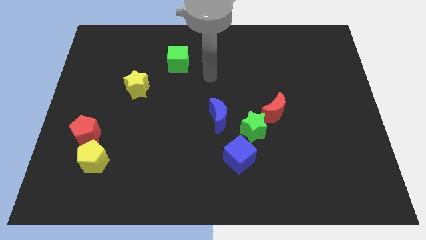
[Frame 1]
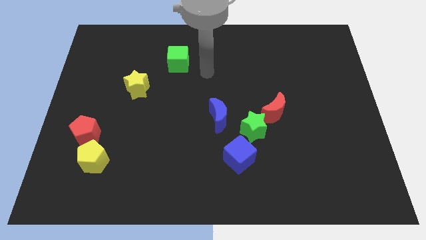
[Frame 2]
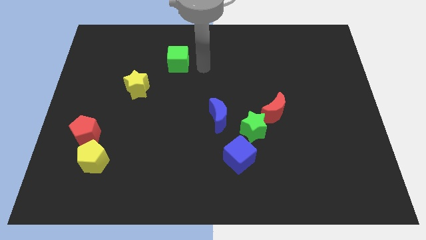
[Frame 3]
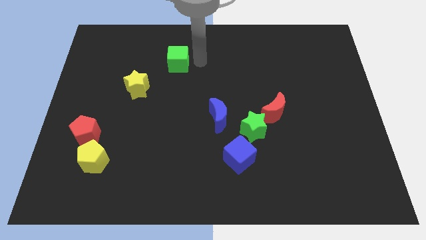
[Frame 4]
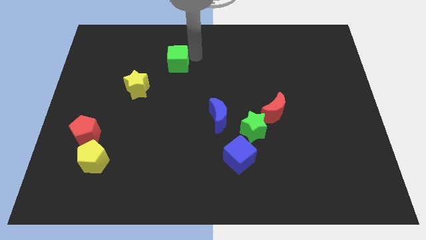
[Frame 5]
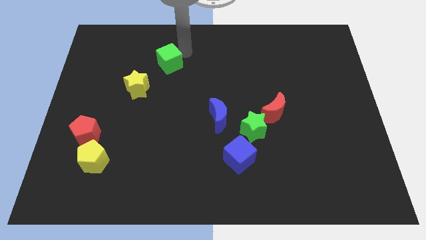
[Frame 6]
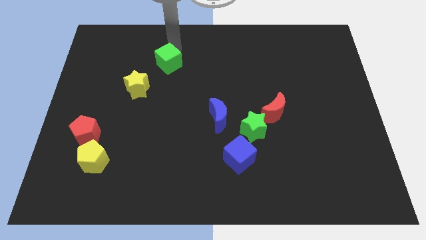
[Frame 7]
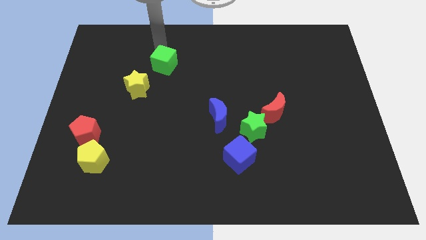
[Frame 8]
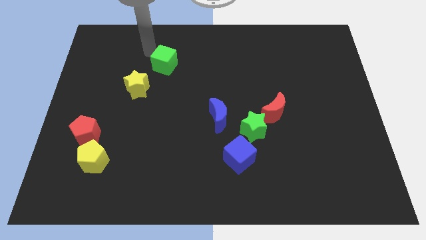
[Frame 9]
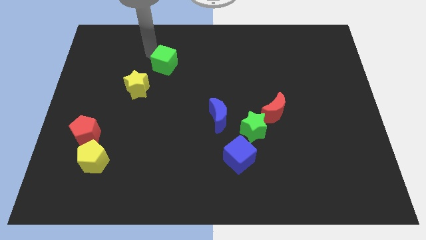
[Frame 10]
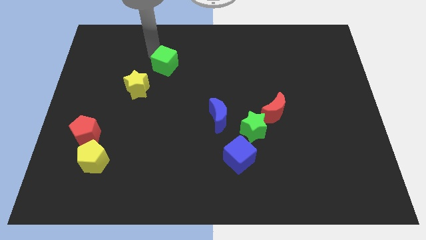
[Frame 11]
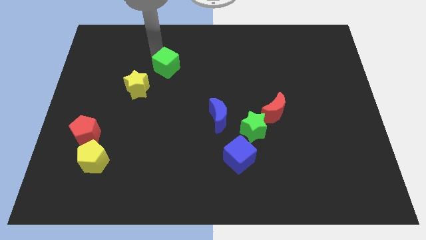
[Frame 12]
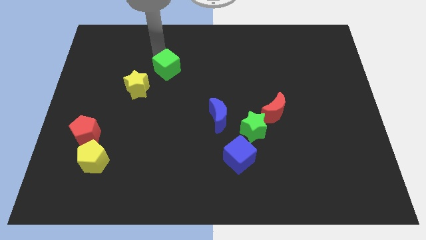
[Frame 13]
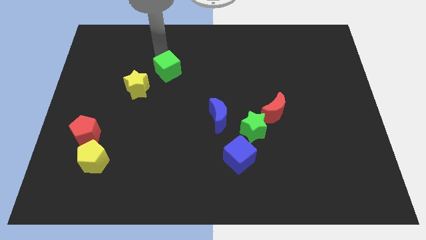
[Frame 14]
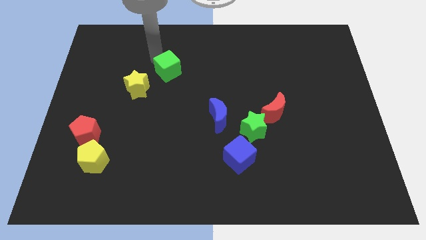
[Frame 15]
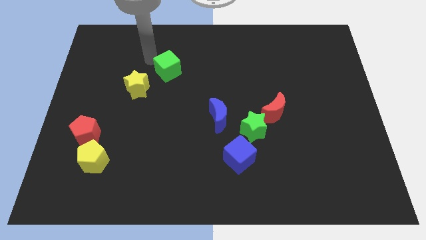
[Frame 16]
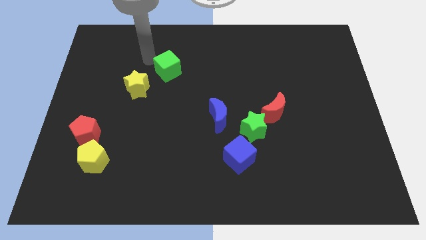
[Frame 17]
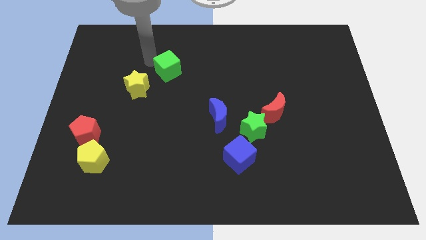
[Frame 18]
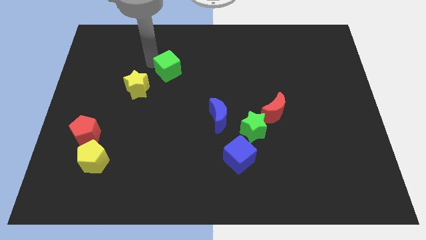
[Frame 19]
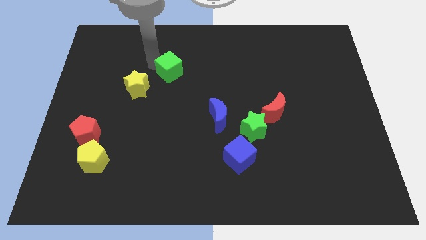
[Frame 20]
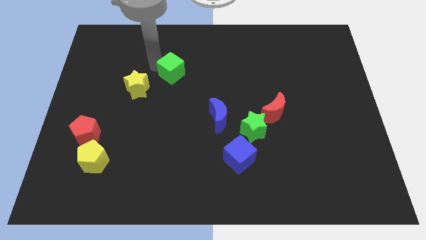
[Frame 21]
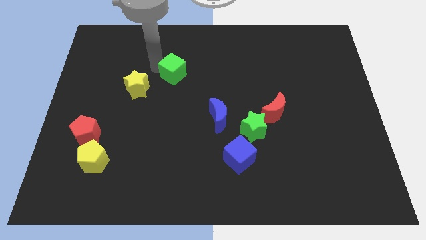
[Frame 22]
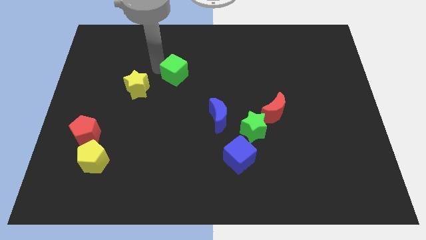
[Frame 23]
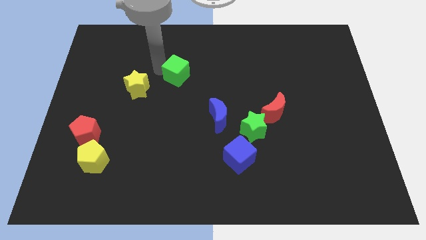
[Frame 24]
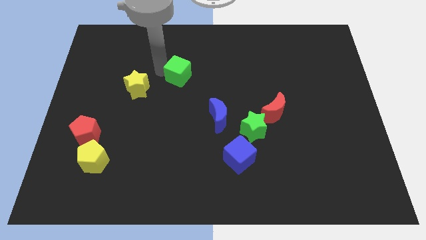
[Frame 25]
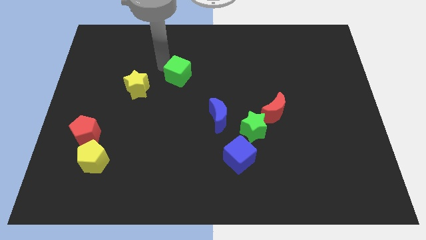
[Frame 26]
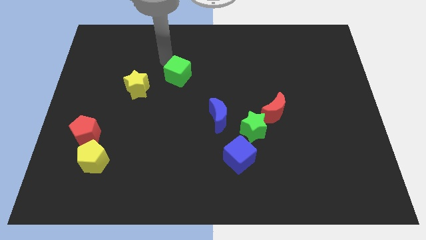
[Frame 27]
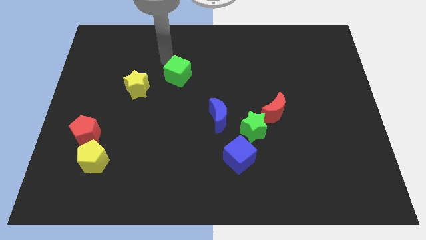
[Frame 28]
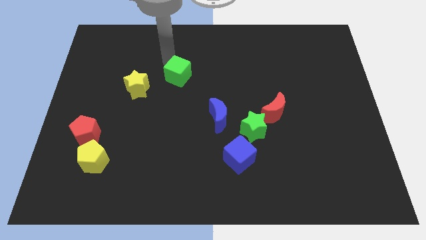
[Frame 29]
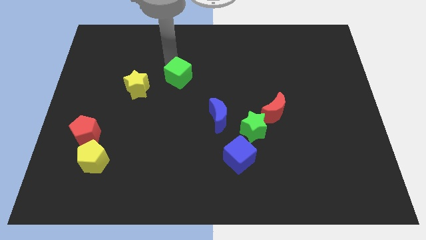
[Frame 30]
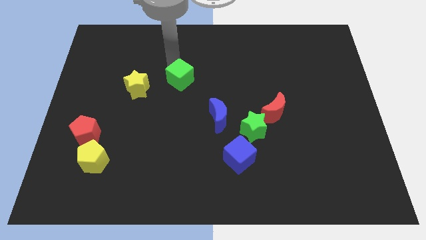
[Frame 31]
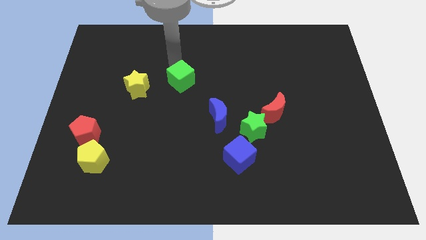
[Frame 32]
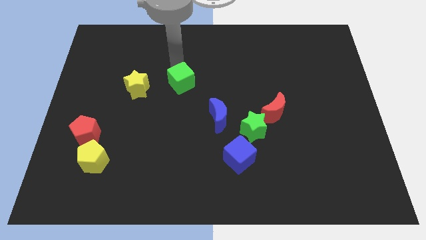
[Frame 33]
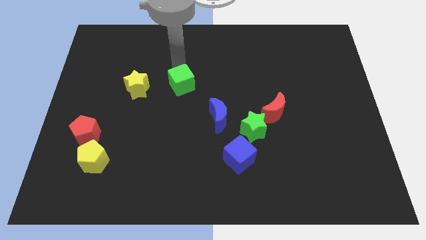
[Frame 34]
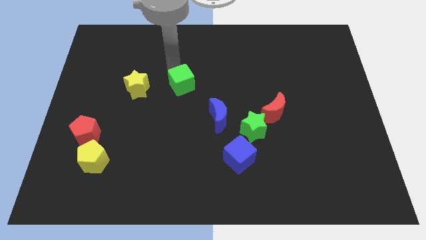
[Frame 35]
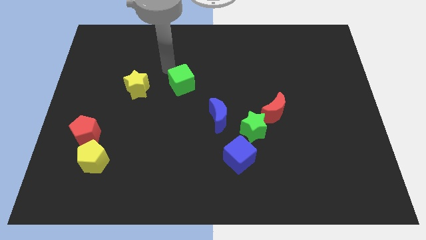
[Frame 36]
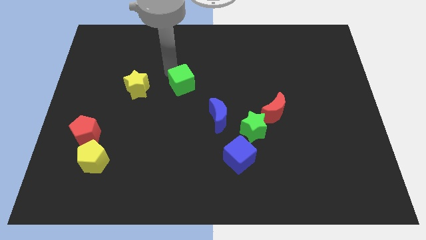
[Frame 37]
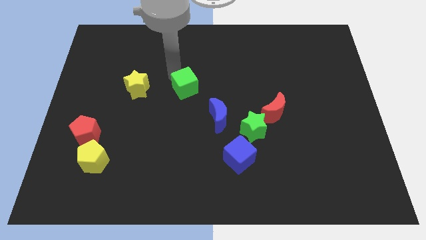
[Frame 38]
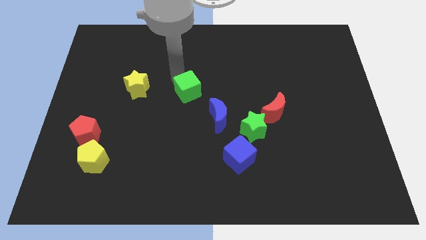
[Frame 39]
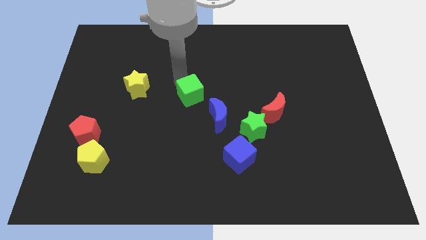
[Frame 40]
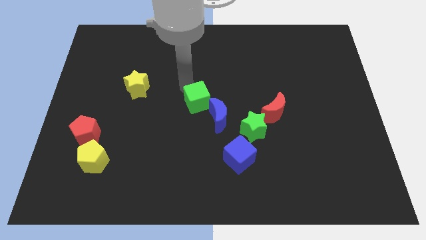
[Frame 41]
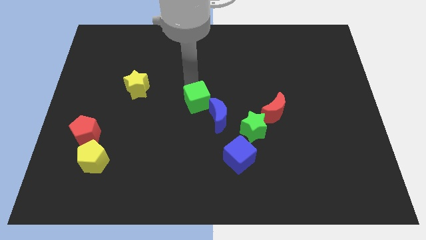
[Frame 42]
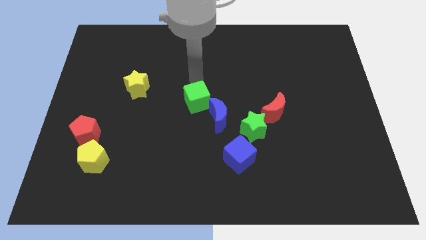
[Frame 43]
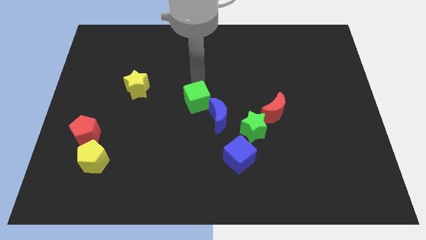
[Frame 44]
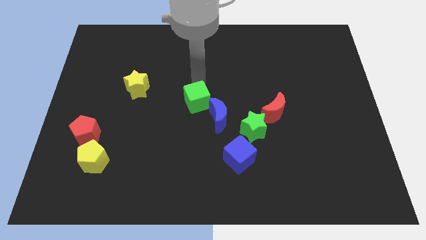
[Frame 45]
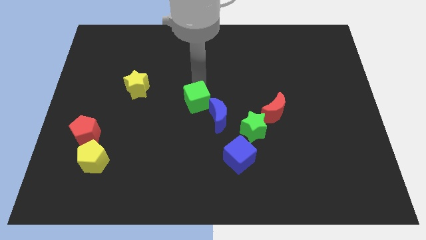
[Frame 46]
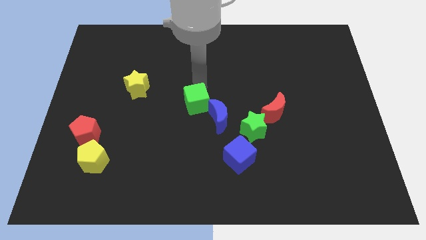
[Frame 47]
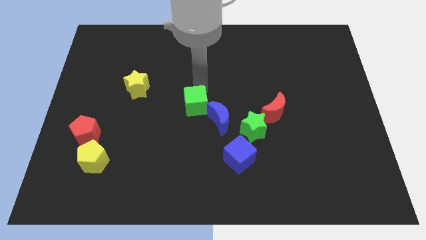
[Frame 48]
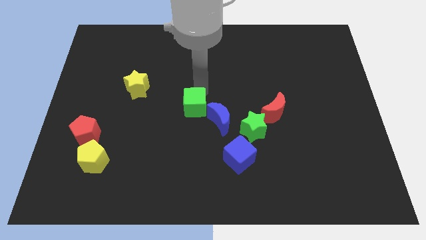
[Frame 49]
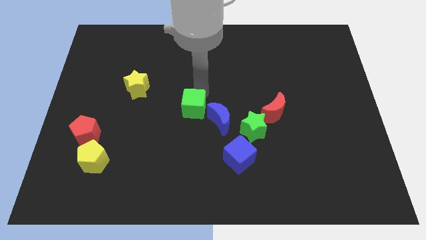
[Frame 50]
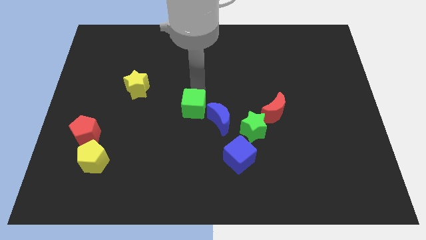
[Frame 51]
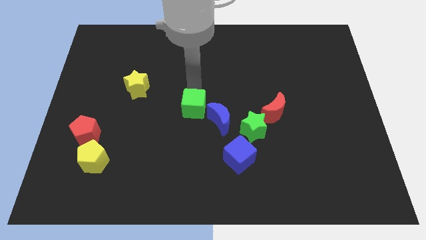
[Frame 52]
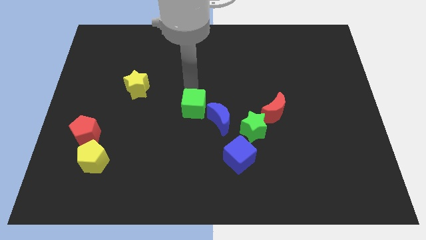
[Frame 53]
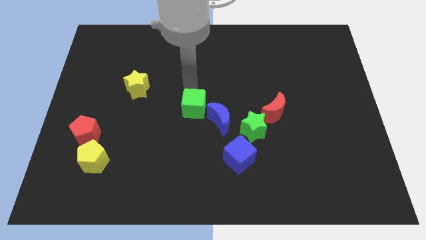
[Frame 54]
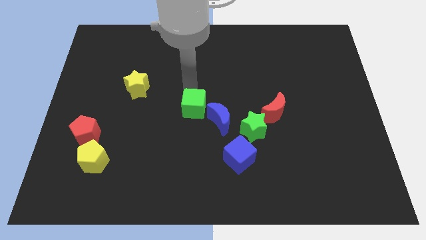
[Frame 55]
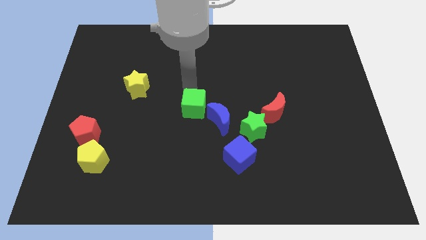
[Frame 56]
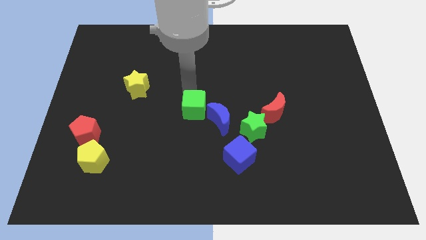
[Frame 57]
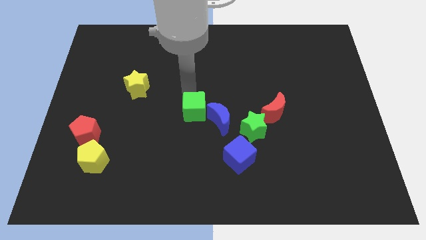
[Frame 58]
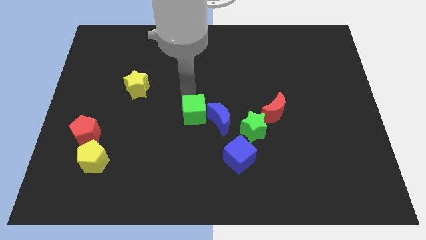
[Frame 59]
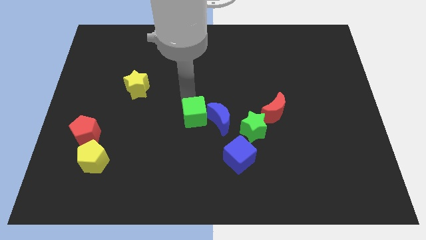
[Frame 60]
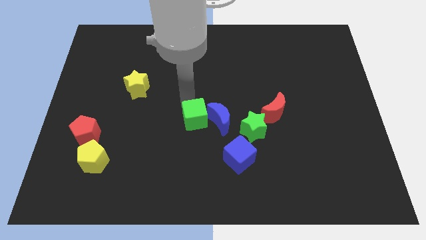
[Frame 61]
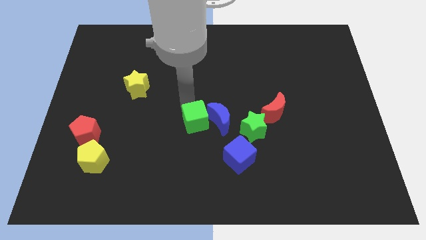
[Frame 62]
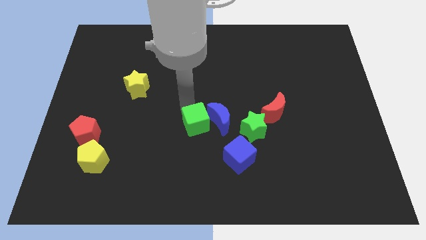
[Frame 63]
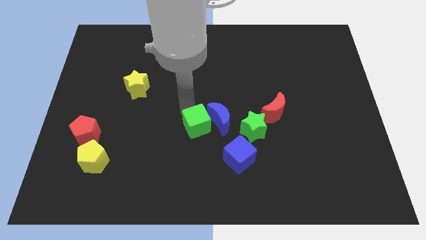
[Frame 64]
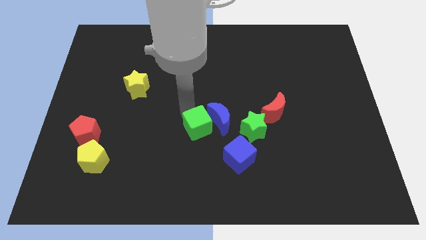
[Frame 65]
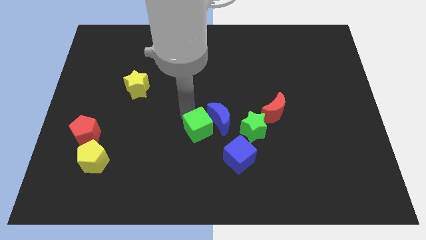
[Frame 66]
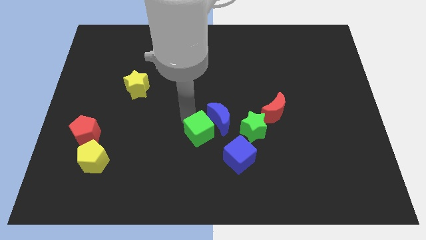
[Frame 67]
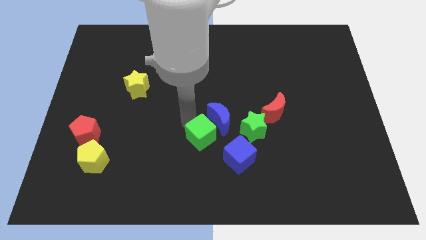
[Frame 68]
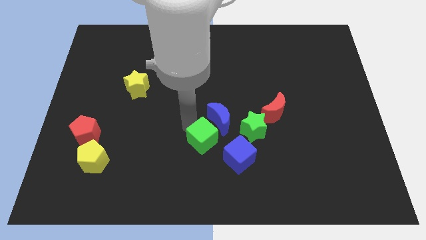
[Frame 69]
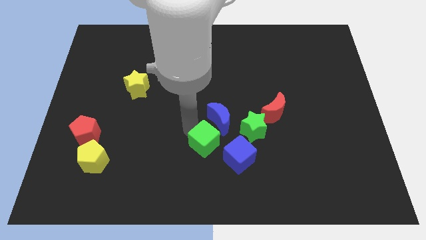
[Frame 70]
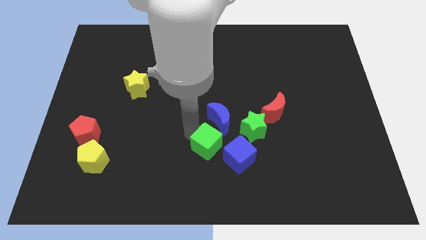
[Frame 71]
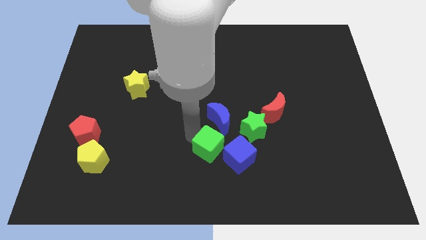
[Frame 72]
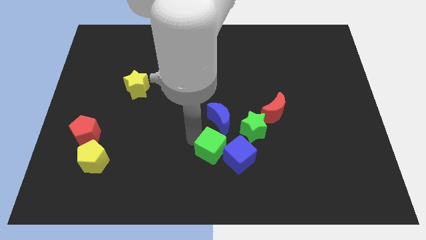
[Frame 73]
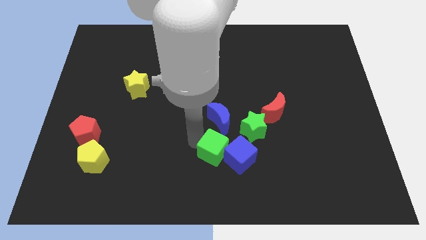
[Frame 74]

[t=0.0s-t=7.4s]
slide the green cube close to the blue cube
